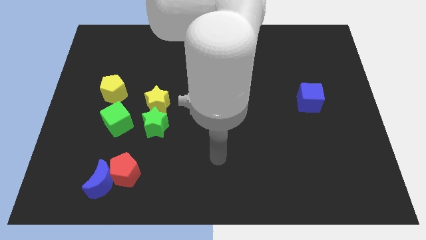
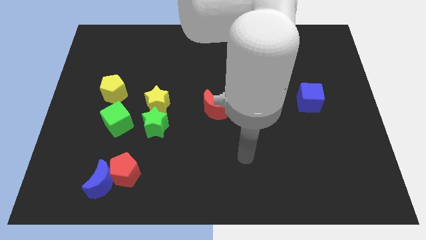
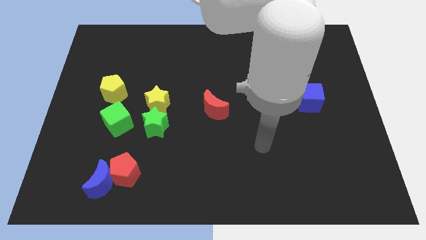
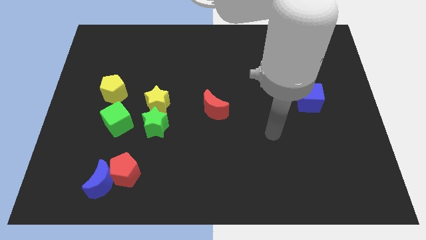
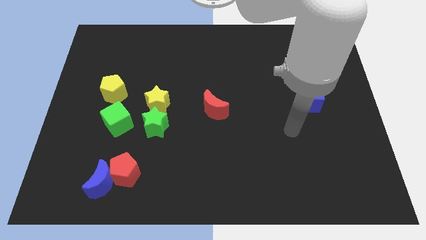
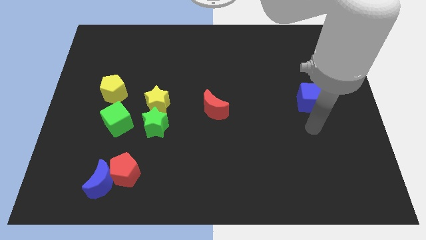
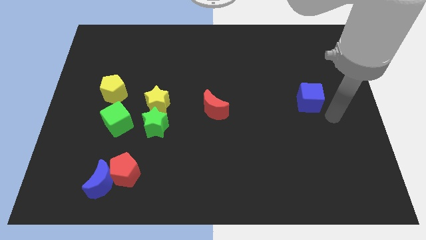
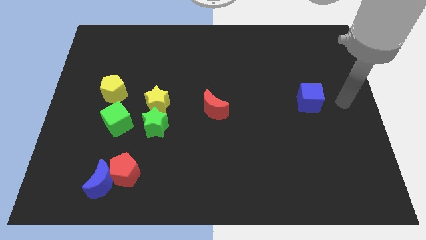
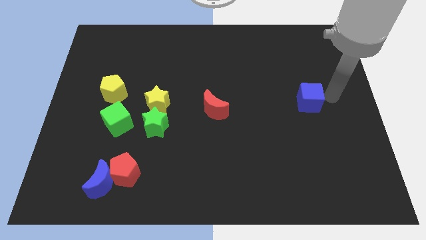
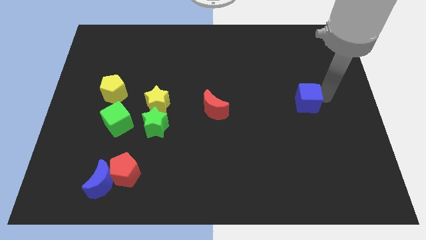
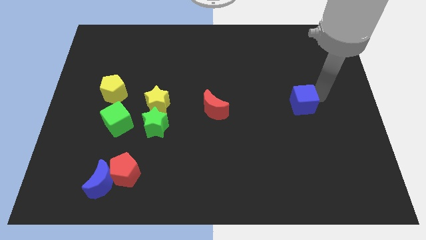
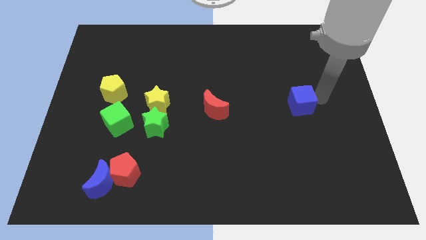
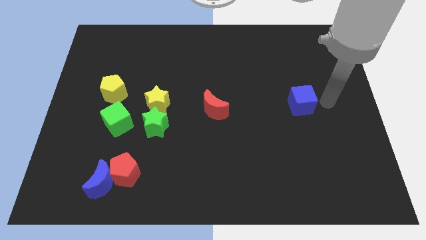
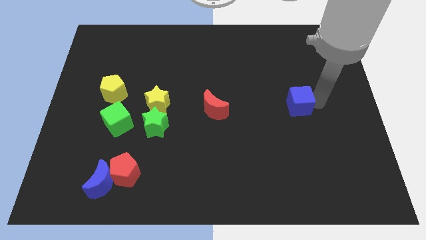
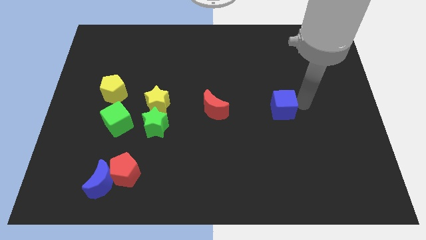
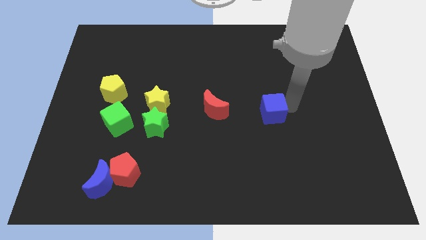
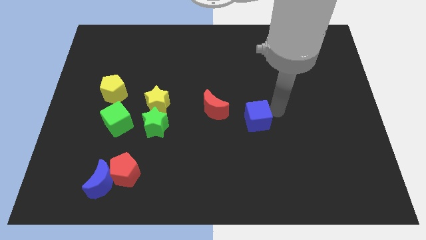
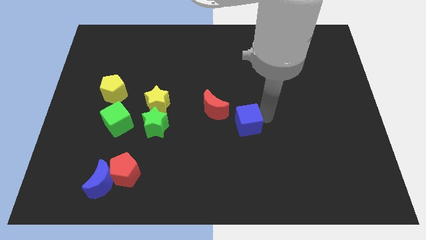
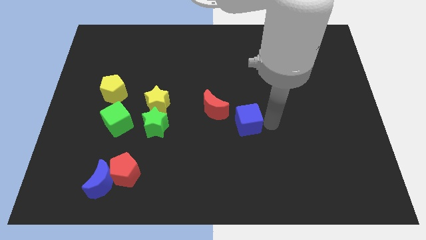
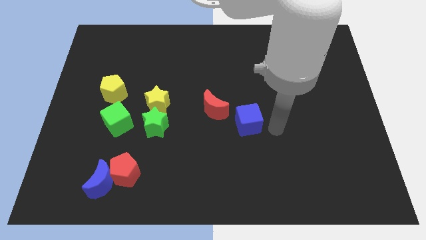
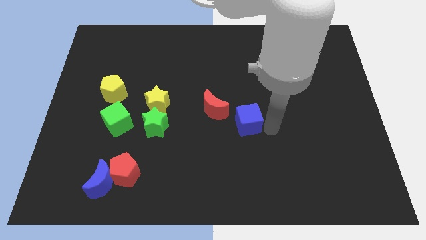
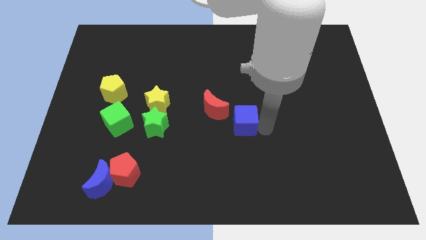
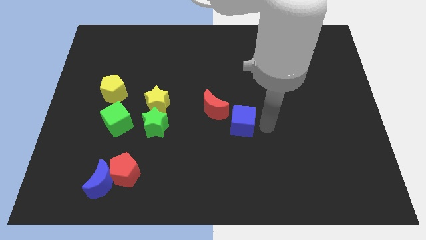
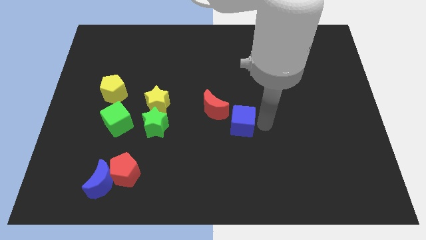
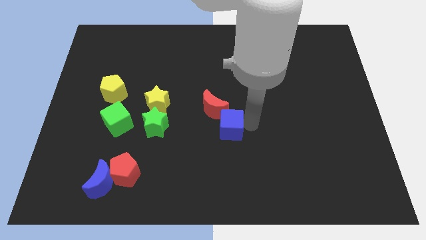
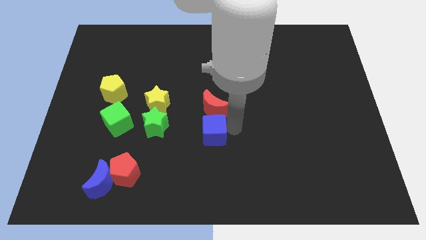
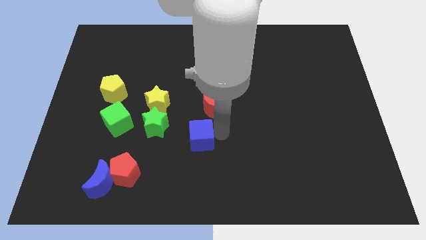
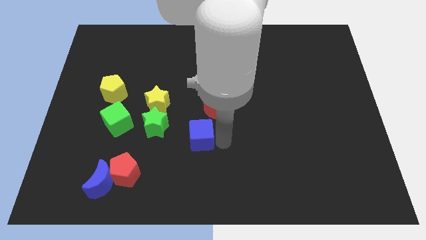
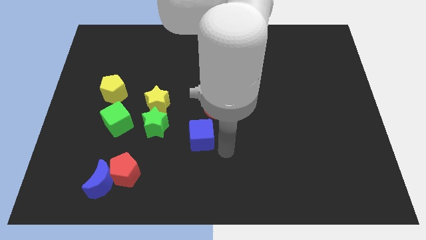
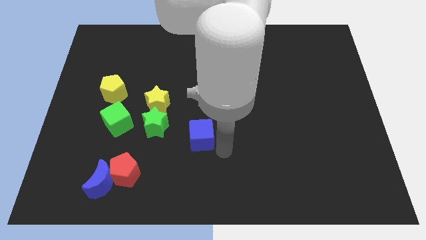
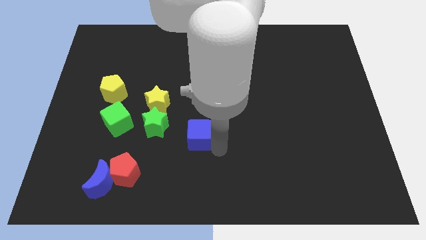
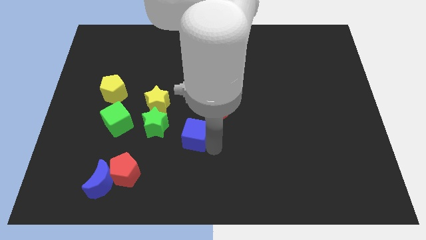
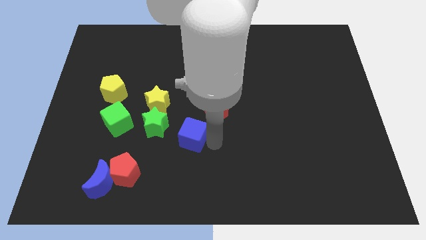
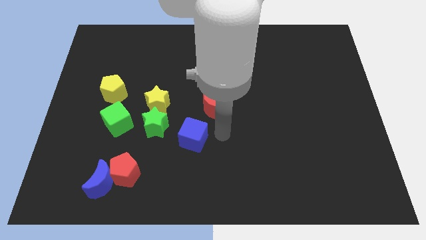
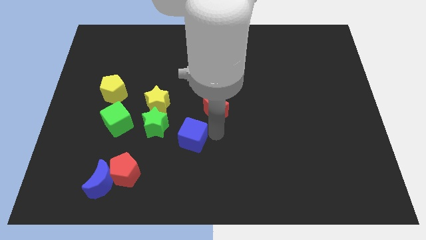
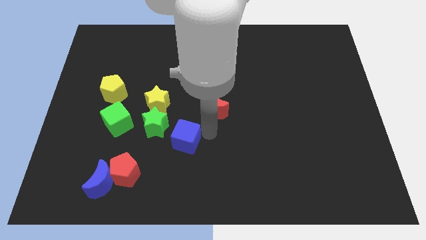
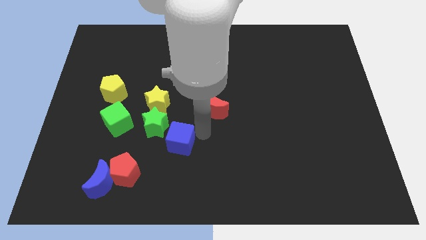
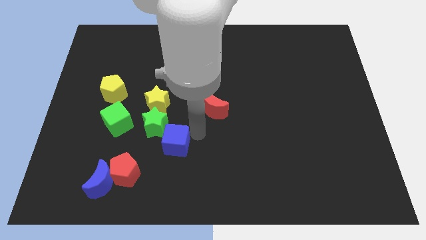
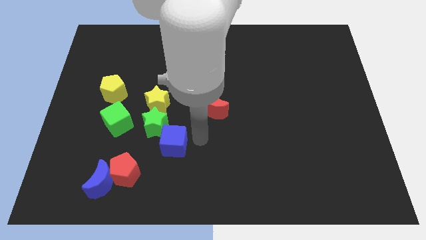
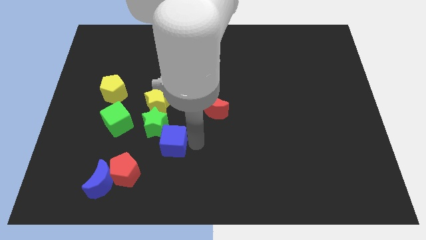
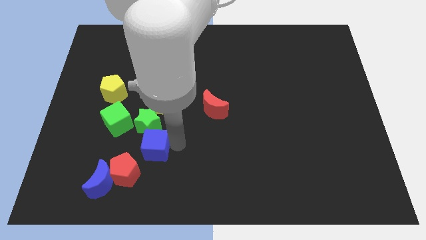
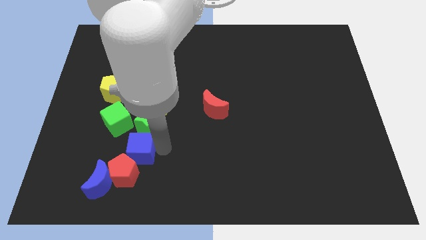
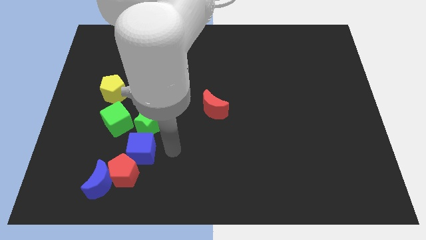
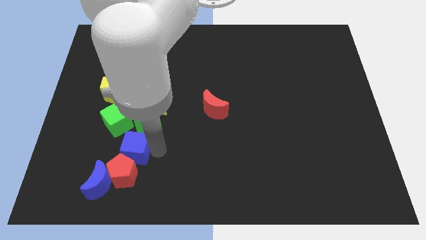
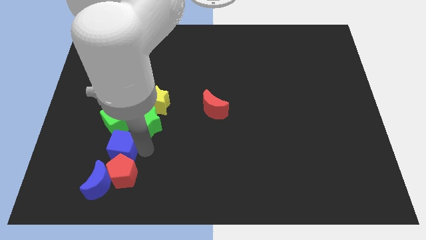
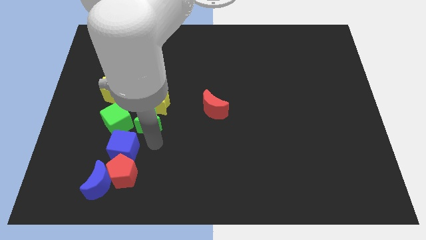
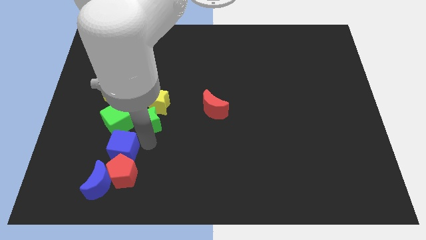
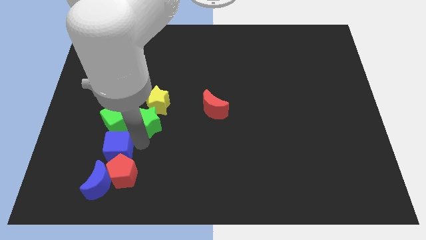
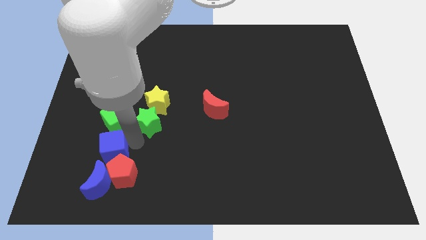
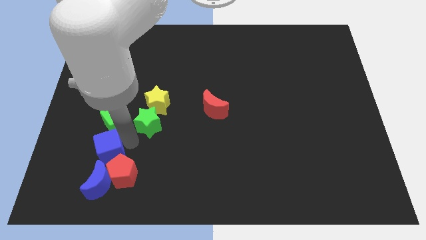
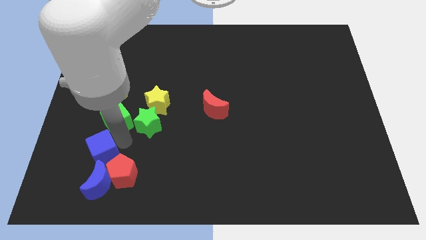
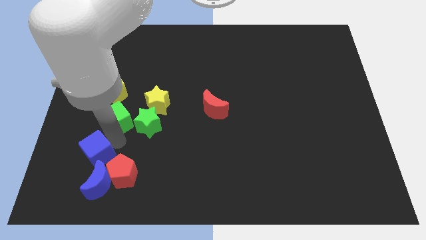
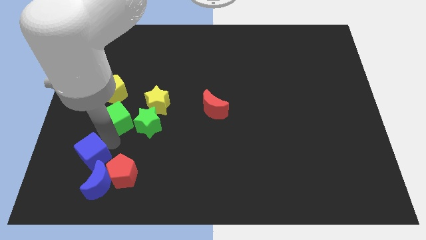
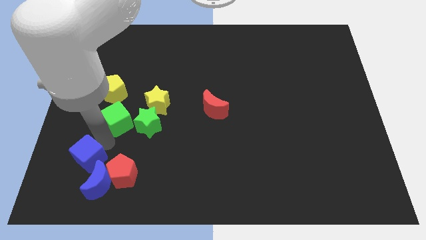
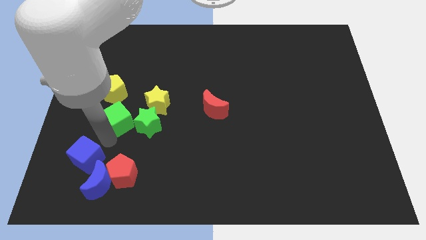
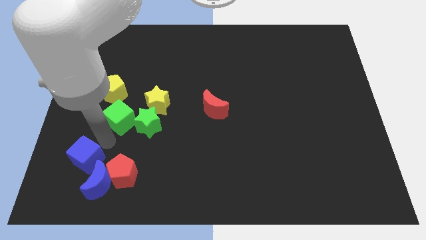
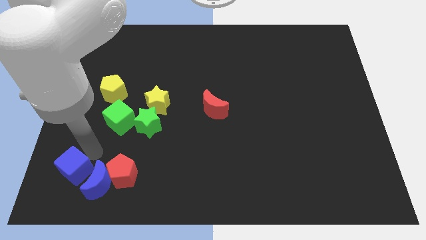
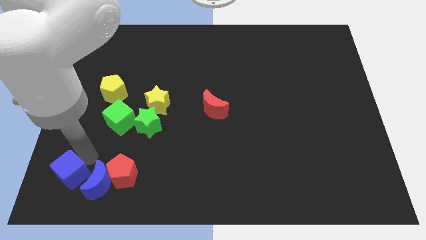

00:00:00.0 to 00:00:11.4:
slide the blue cube to the bottom left
